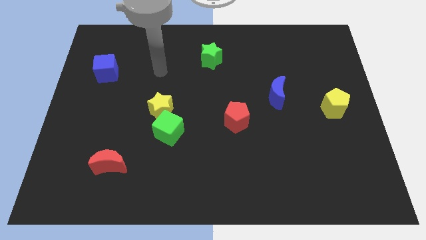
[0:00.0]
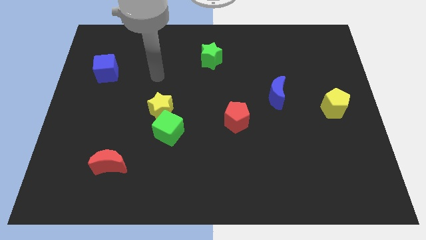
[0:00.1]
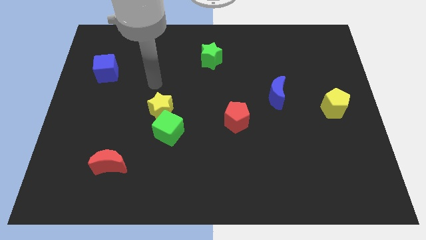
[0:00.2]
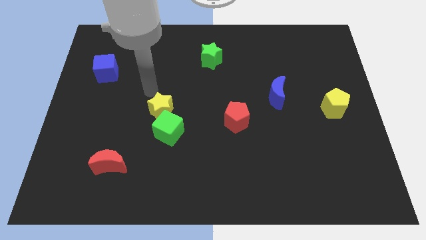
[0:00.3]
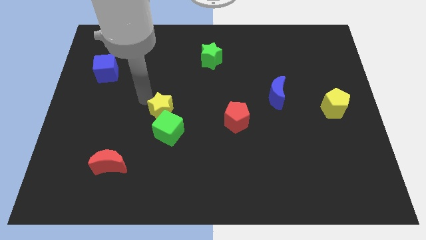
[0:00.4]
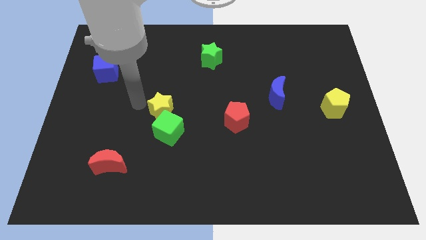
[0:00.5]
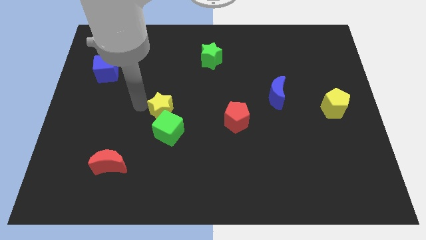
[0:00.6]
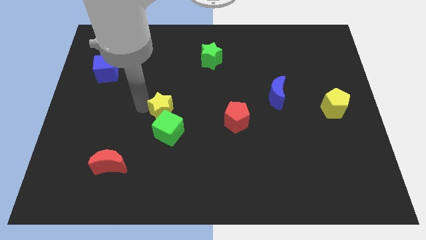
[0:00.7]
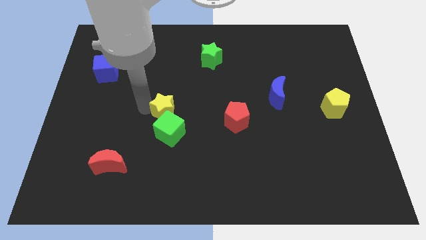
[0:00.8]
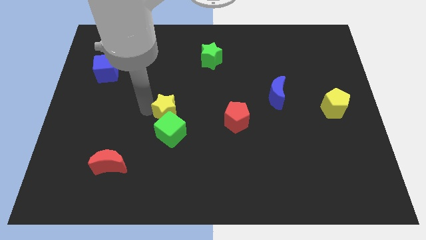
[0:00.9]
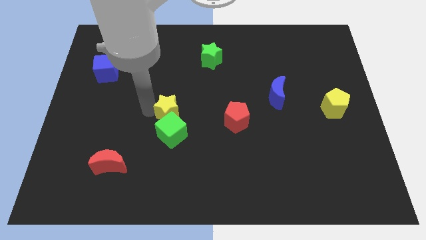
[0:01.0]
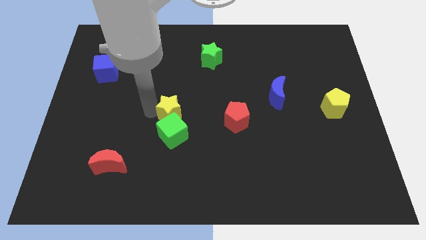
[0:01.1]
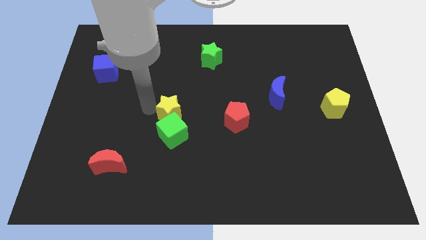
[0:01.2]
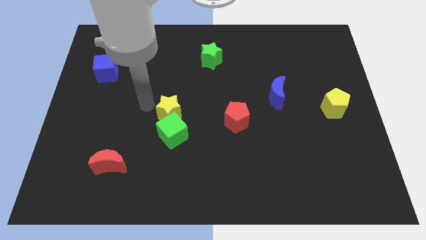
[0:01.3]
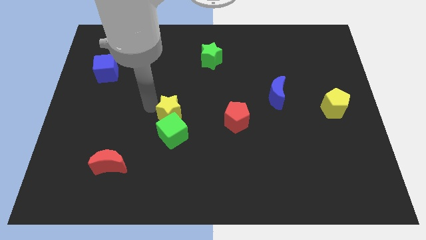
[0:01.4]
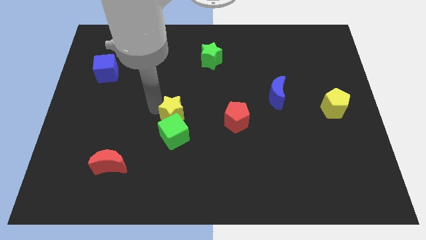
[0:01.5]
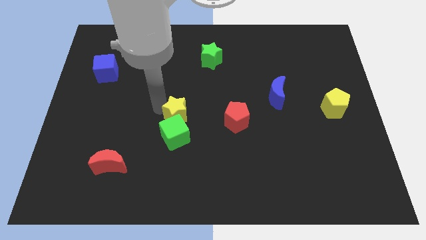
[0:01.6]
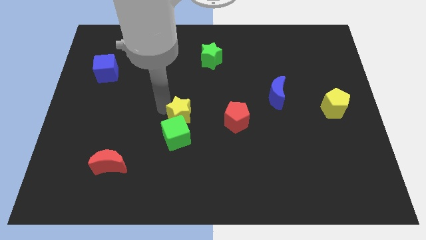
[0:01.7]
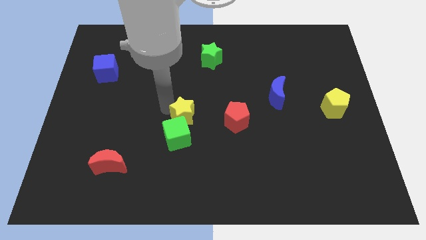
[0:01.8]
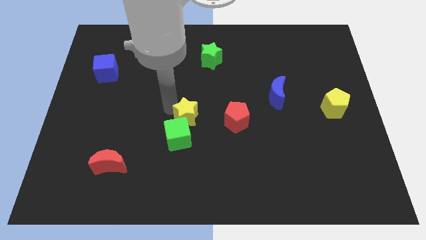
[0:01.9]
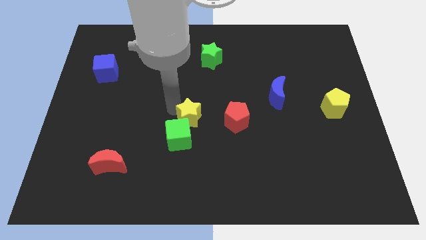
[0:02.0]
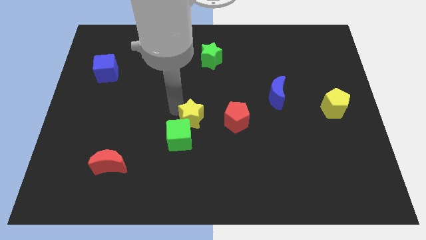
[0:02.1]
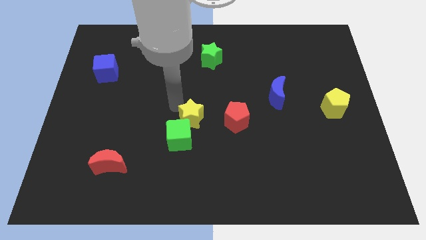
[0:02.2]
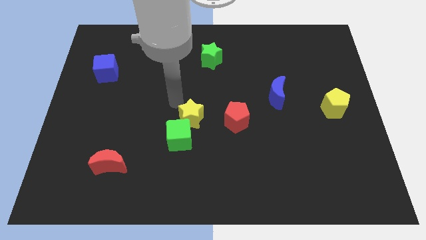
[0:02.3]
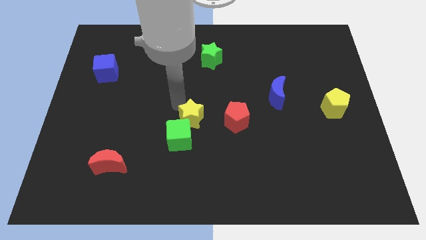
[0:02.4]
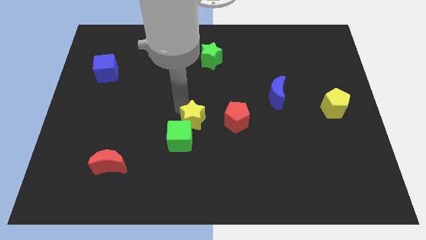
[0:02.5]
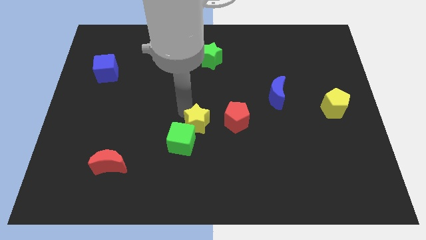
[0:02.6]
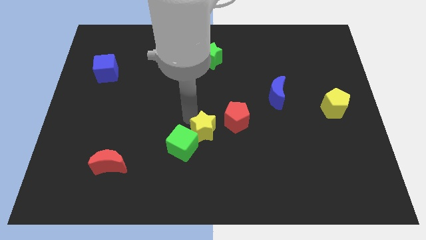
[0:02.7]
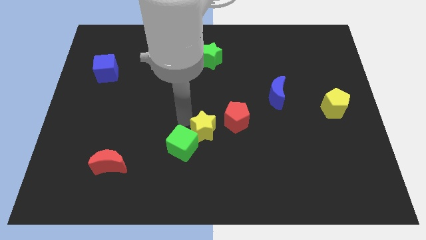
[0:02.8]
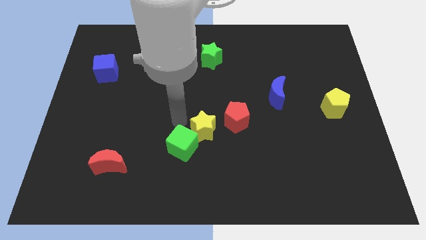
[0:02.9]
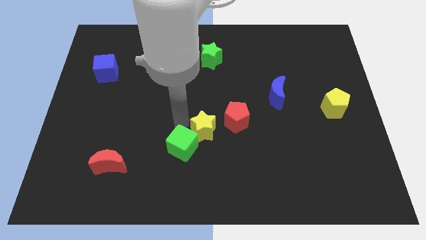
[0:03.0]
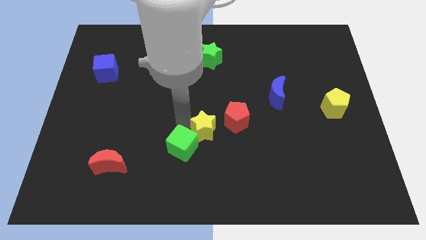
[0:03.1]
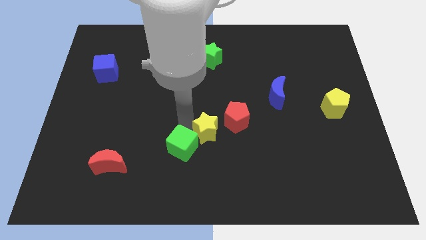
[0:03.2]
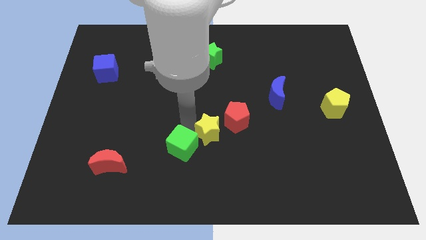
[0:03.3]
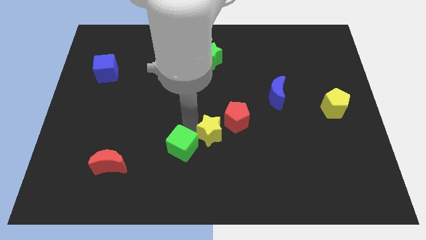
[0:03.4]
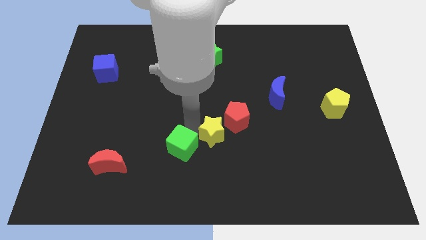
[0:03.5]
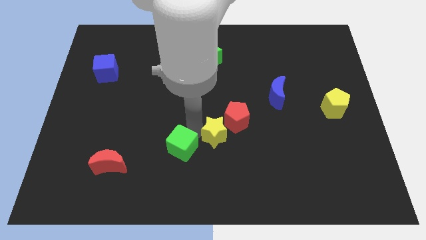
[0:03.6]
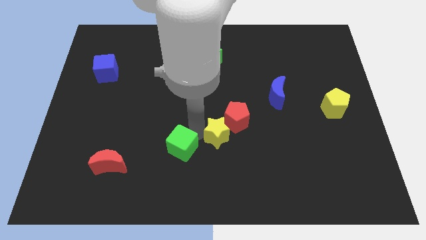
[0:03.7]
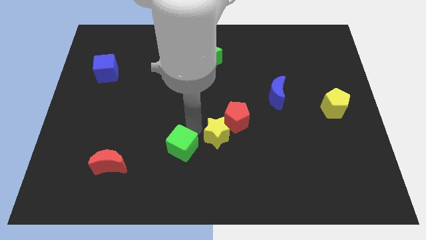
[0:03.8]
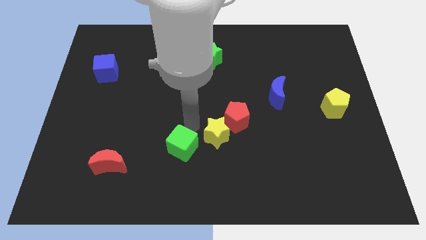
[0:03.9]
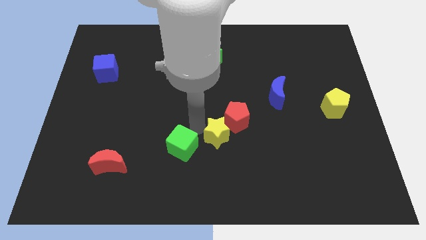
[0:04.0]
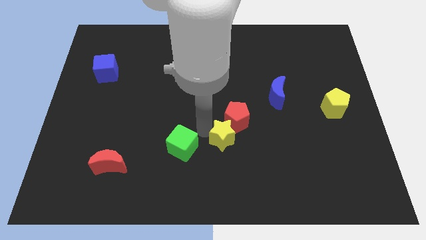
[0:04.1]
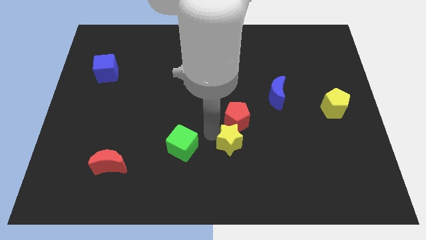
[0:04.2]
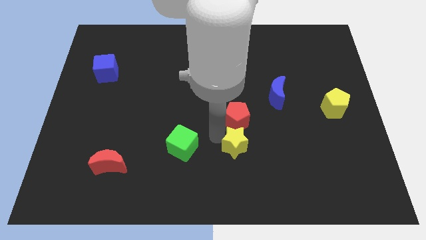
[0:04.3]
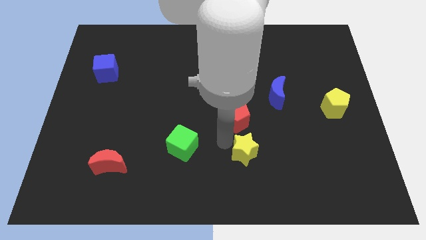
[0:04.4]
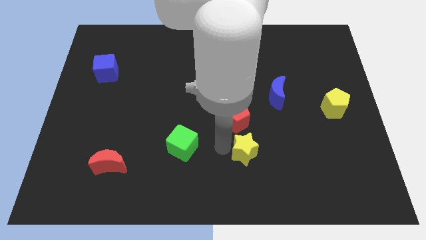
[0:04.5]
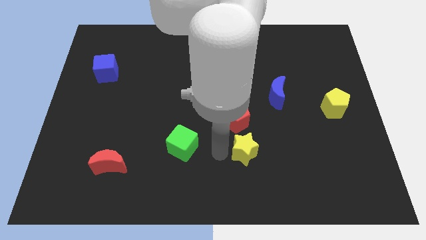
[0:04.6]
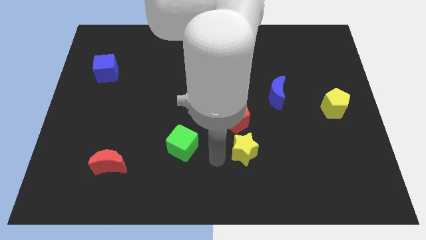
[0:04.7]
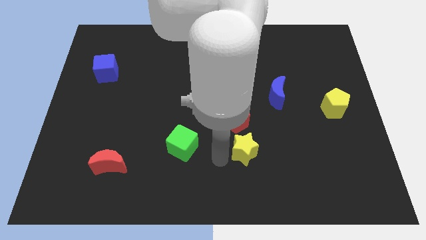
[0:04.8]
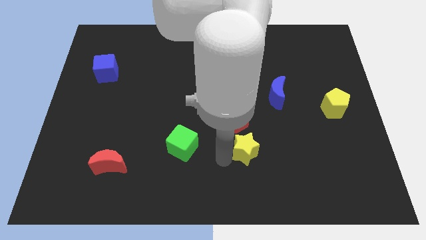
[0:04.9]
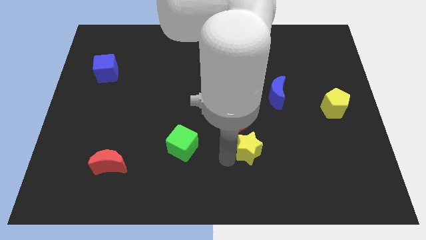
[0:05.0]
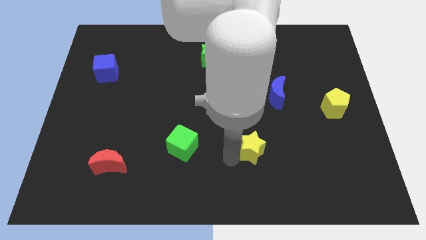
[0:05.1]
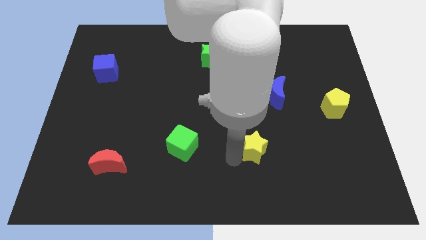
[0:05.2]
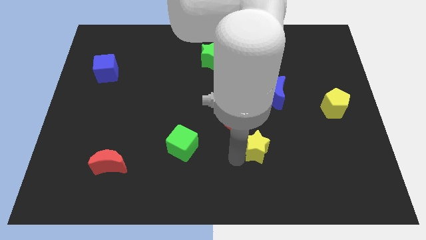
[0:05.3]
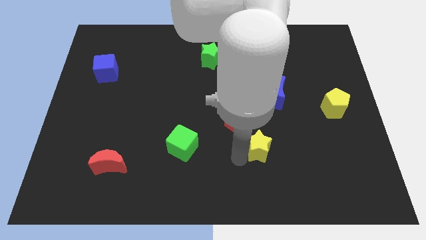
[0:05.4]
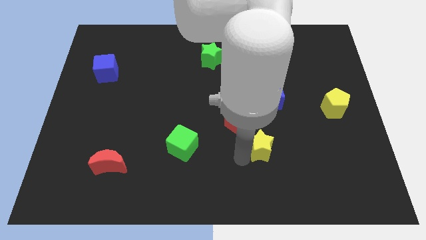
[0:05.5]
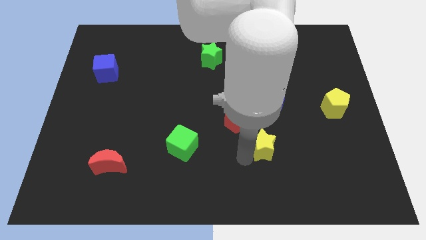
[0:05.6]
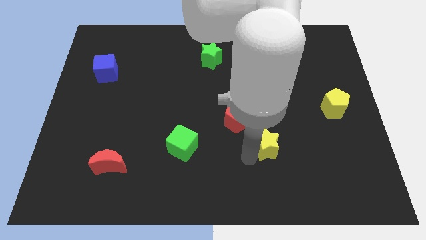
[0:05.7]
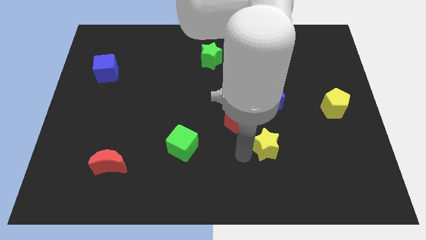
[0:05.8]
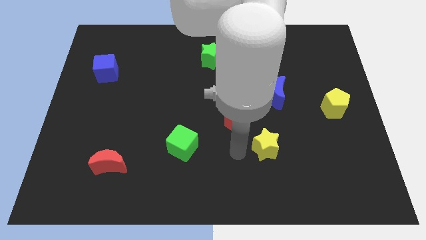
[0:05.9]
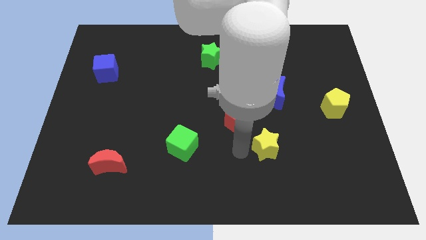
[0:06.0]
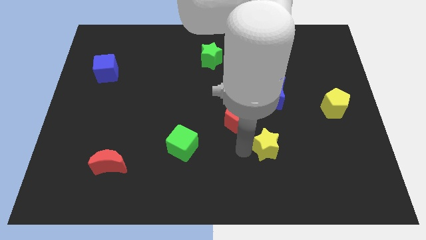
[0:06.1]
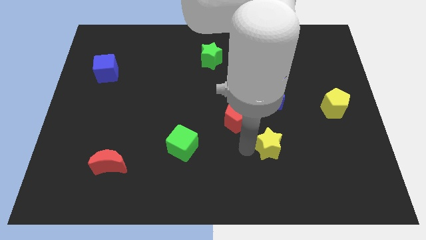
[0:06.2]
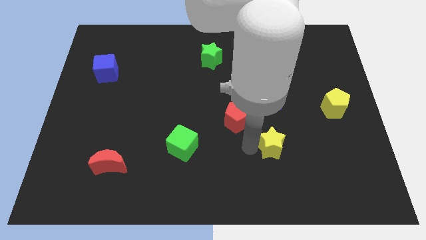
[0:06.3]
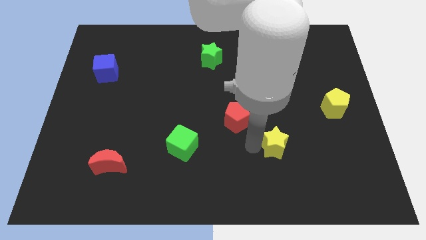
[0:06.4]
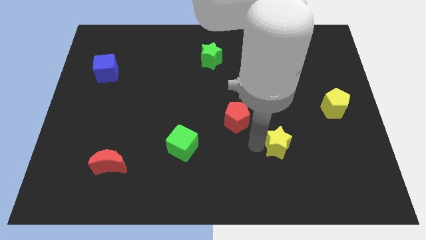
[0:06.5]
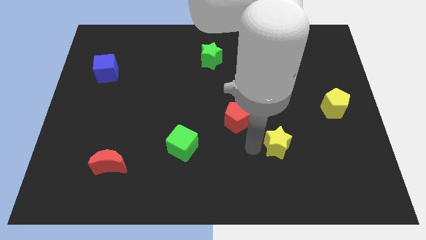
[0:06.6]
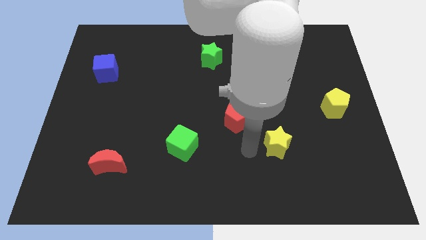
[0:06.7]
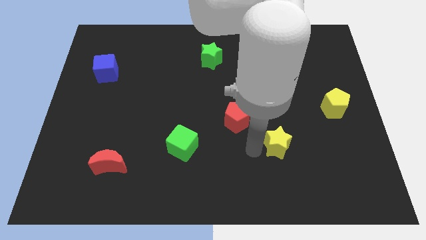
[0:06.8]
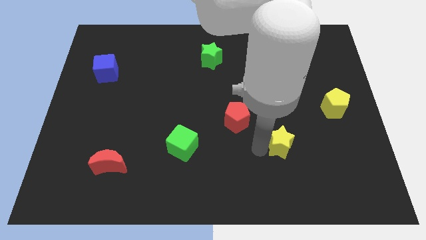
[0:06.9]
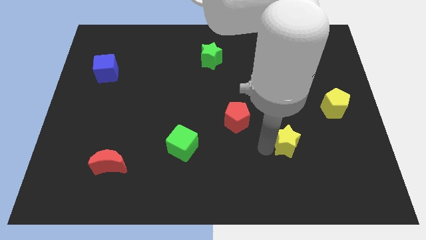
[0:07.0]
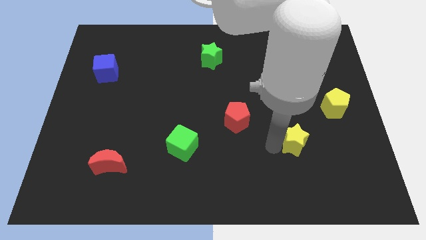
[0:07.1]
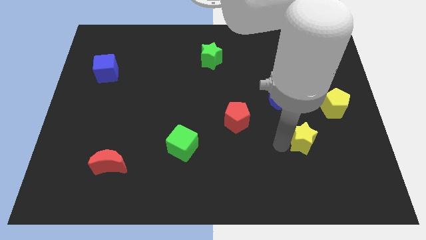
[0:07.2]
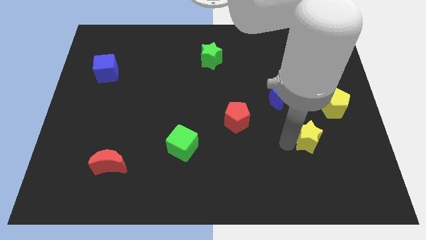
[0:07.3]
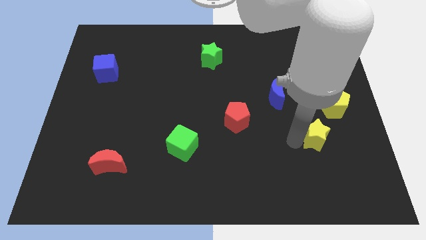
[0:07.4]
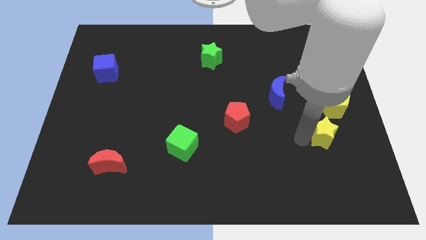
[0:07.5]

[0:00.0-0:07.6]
put the yellow star to the bottom side of the yellow pentagon

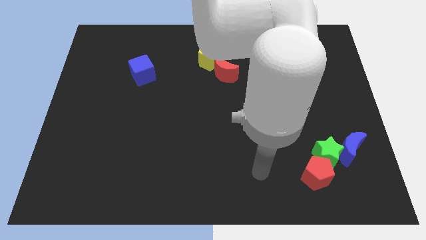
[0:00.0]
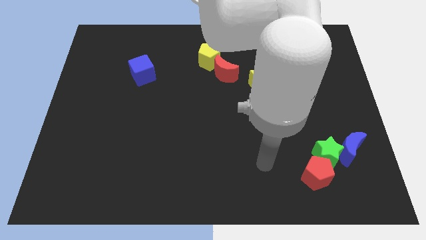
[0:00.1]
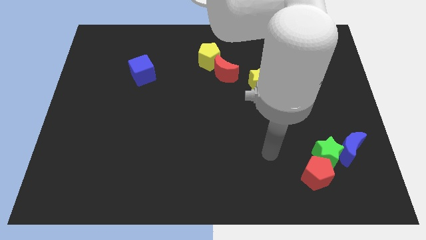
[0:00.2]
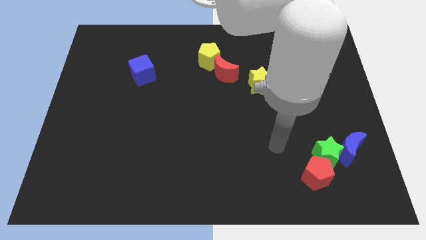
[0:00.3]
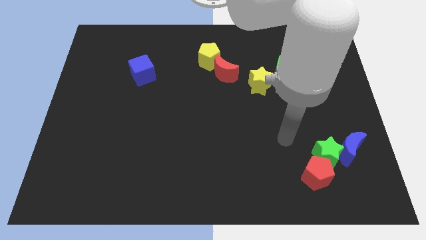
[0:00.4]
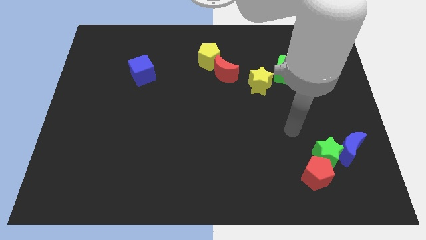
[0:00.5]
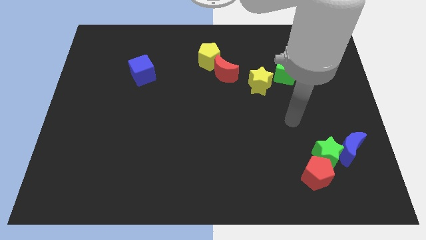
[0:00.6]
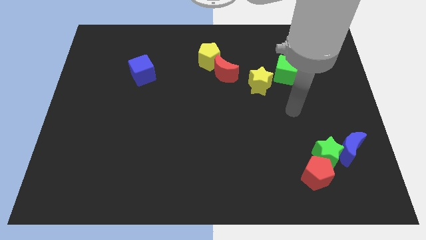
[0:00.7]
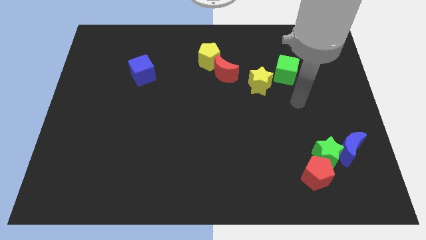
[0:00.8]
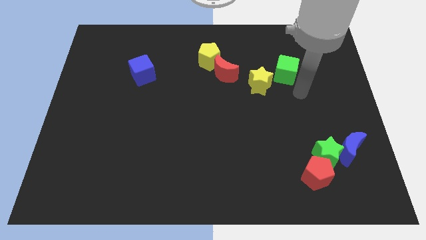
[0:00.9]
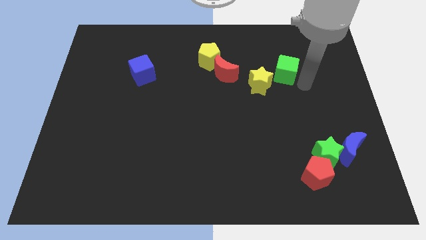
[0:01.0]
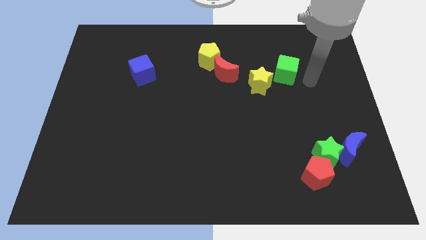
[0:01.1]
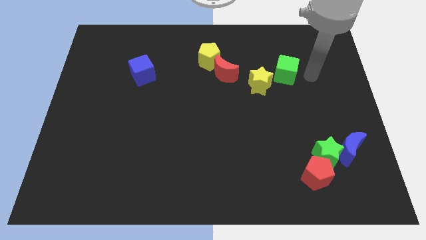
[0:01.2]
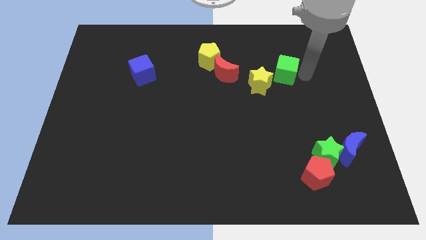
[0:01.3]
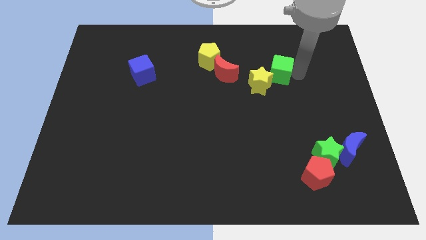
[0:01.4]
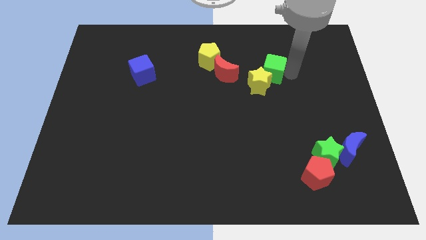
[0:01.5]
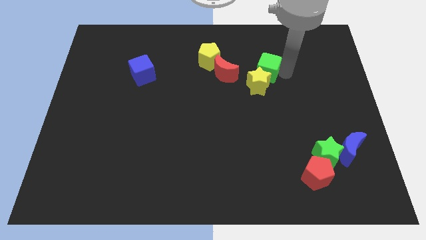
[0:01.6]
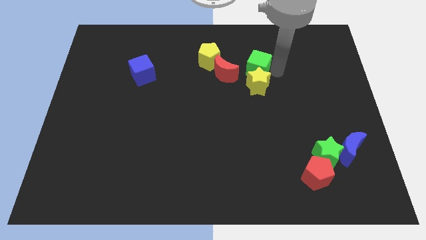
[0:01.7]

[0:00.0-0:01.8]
push the green cube to the top left of the yellow star
